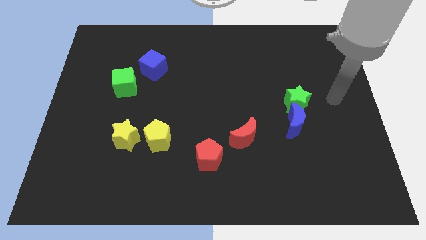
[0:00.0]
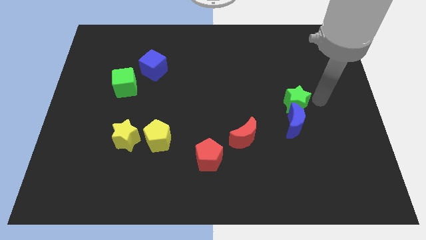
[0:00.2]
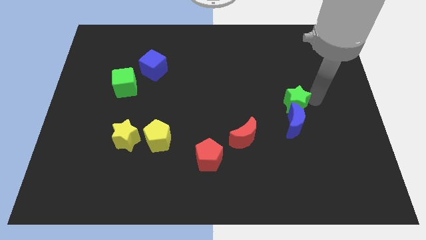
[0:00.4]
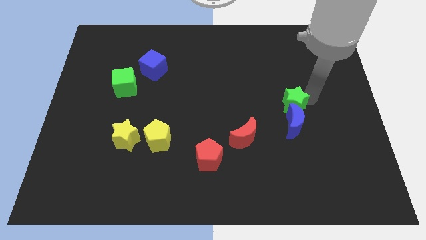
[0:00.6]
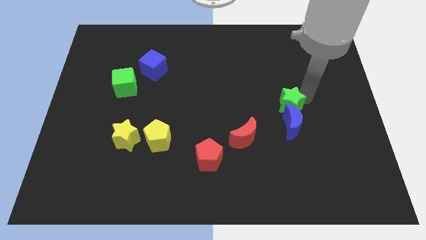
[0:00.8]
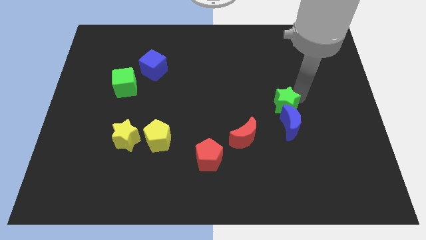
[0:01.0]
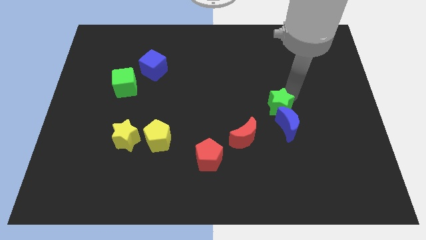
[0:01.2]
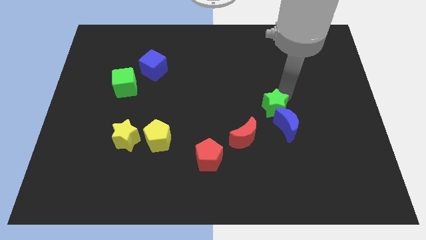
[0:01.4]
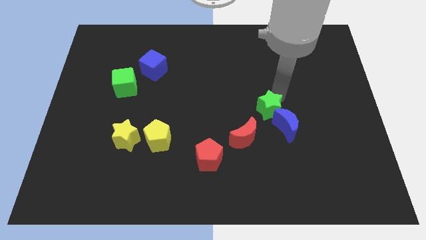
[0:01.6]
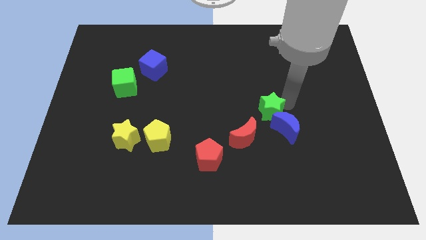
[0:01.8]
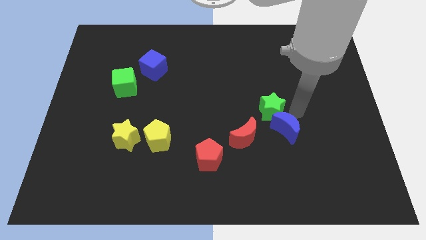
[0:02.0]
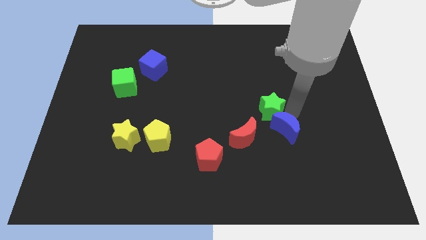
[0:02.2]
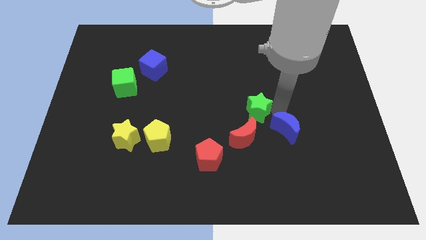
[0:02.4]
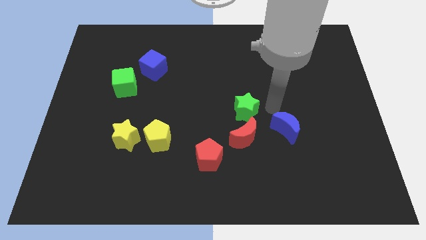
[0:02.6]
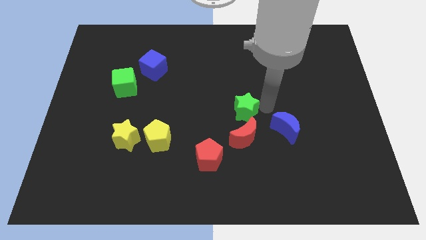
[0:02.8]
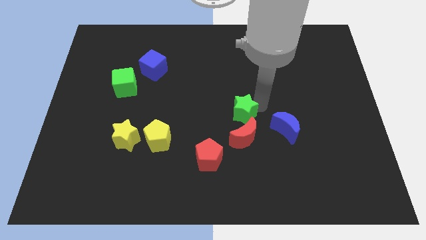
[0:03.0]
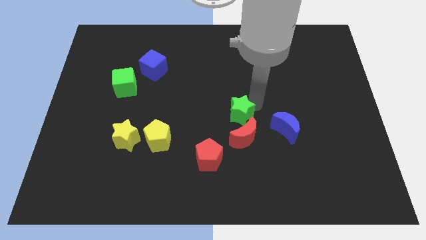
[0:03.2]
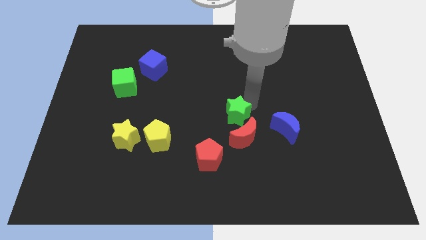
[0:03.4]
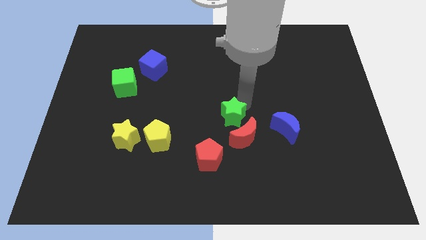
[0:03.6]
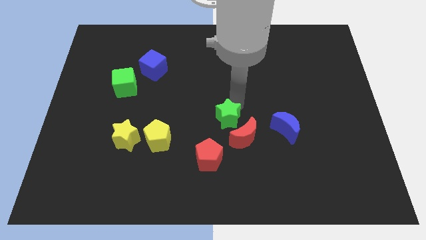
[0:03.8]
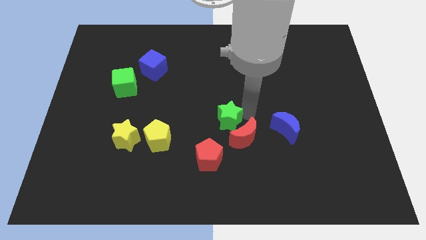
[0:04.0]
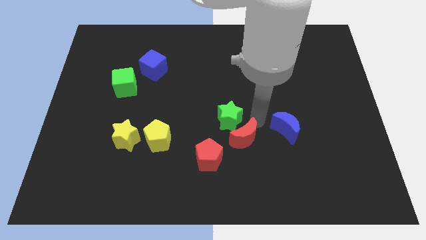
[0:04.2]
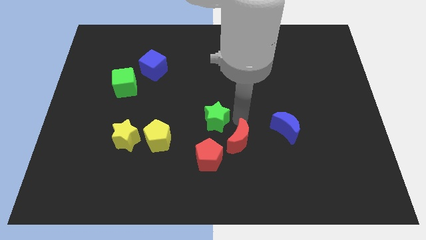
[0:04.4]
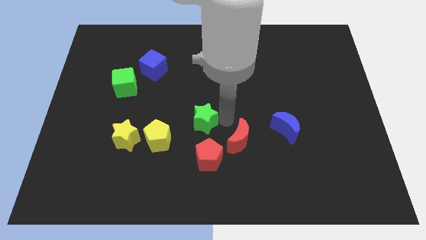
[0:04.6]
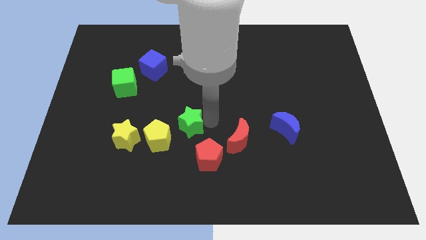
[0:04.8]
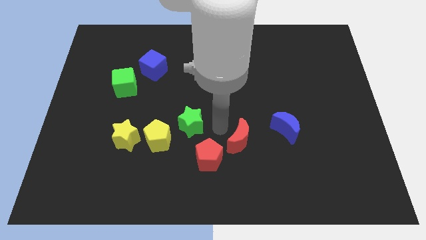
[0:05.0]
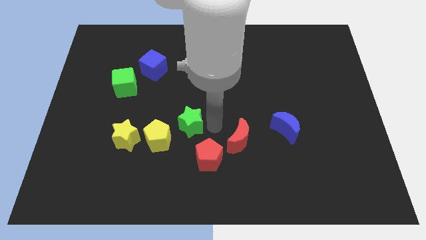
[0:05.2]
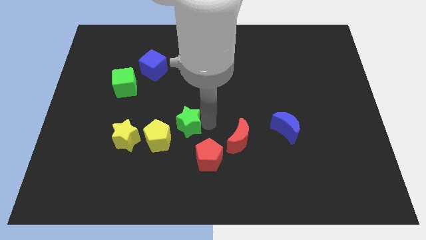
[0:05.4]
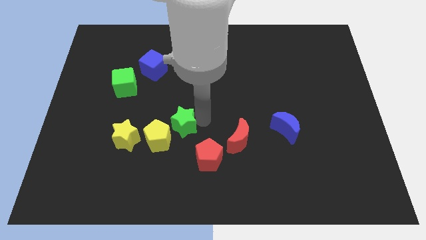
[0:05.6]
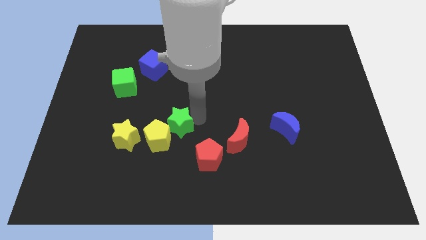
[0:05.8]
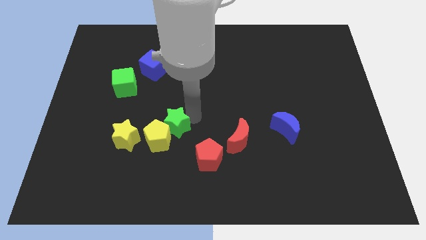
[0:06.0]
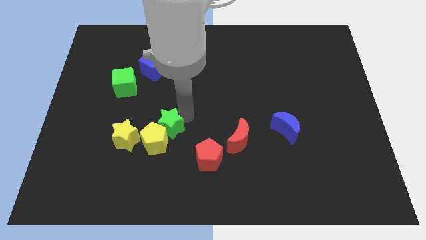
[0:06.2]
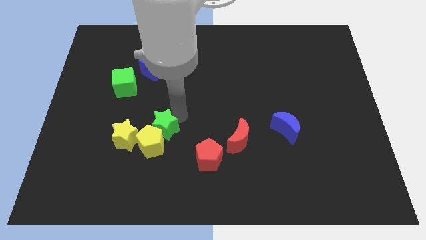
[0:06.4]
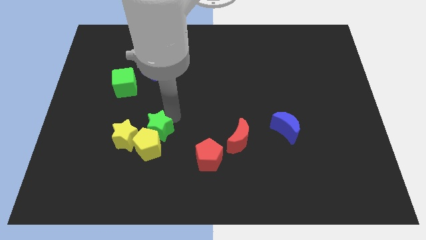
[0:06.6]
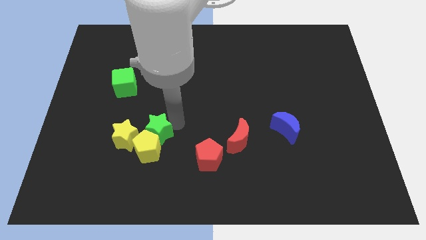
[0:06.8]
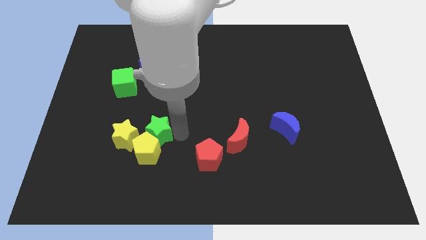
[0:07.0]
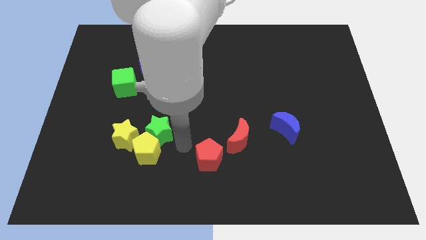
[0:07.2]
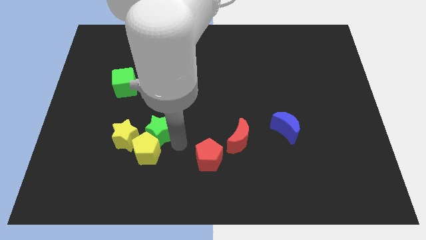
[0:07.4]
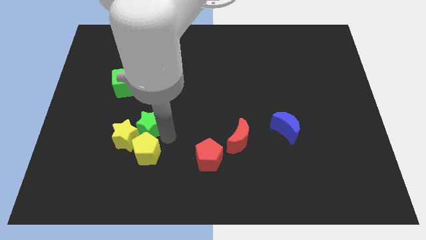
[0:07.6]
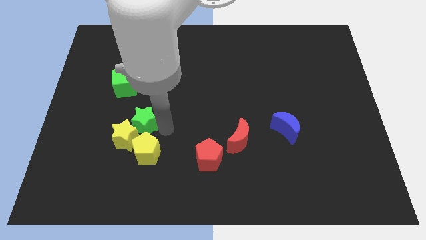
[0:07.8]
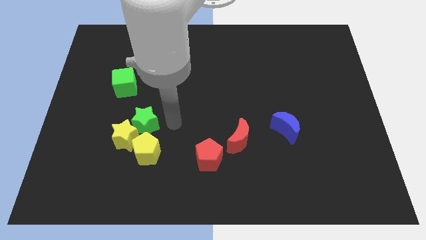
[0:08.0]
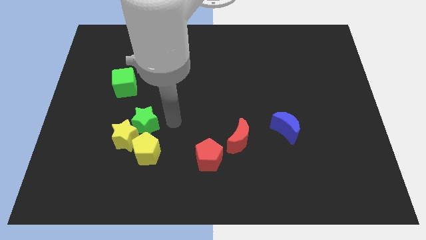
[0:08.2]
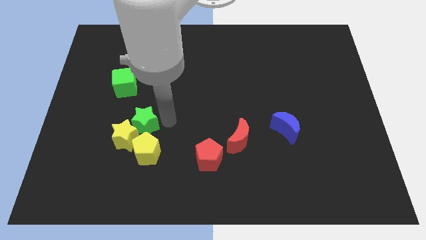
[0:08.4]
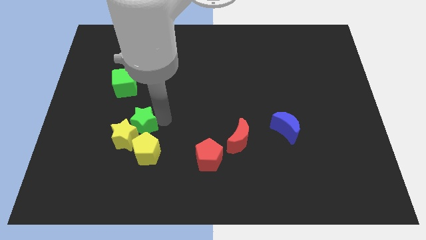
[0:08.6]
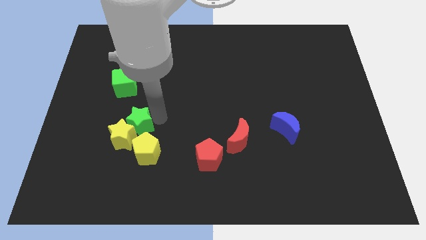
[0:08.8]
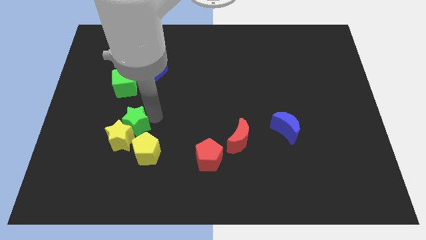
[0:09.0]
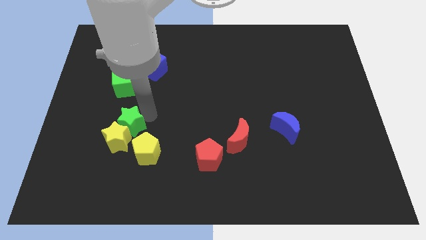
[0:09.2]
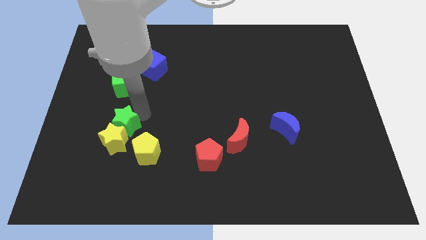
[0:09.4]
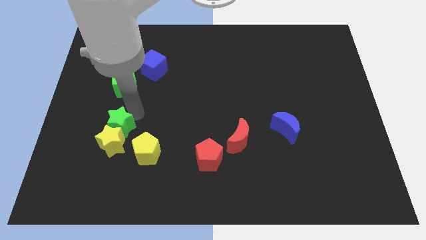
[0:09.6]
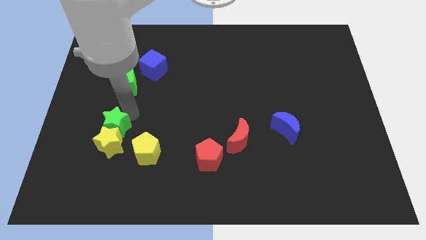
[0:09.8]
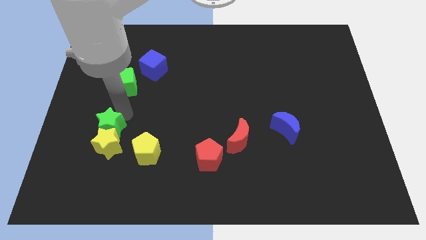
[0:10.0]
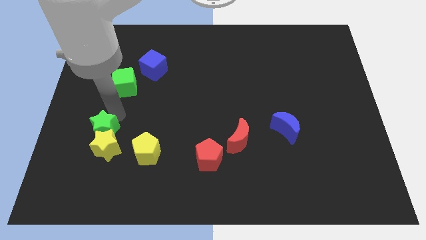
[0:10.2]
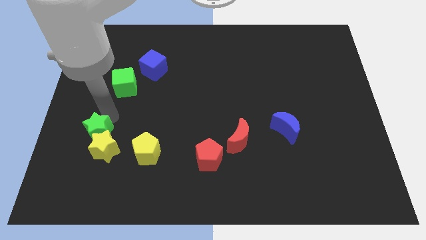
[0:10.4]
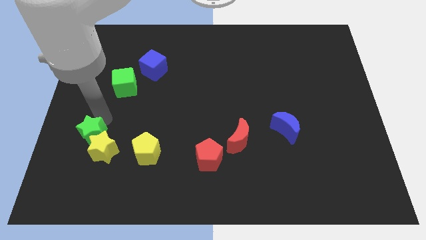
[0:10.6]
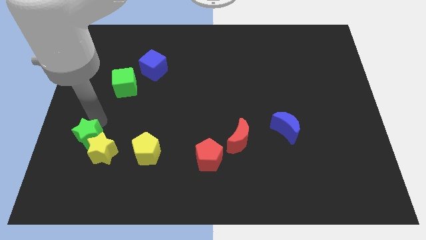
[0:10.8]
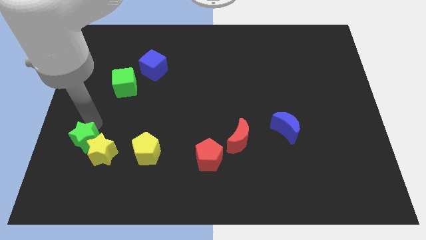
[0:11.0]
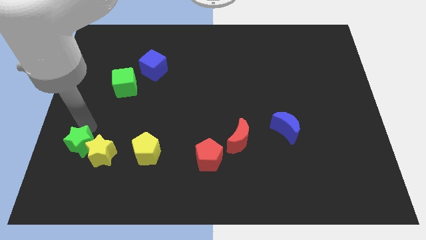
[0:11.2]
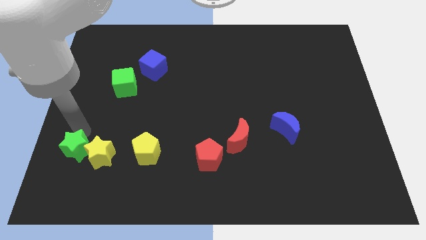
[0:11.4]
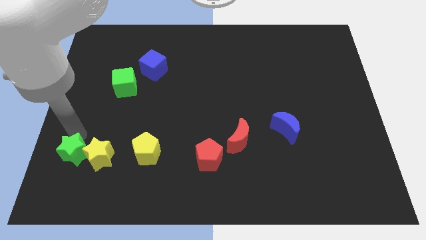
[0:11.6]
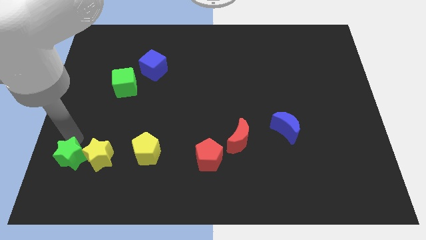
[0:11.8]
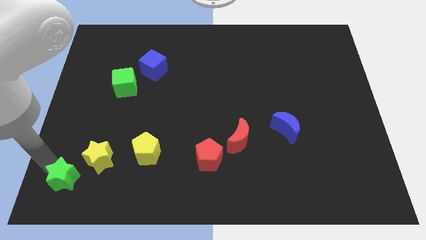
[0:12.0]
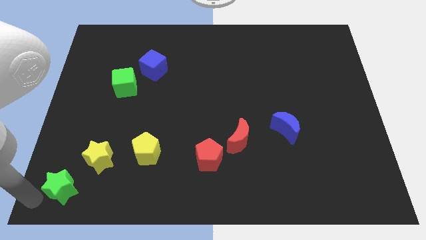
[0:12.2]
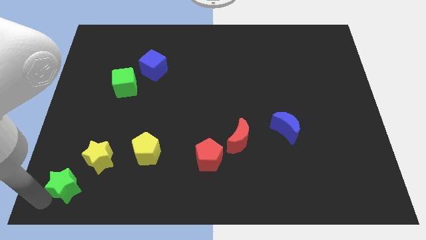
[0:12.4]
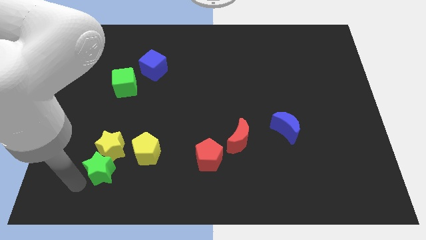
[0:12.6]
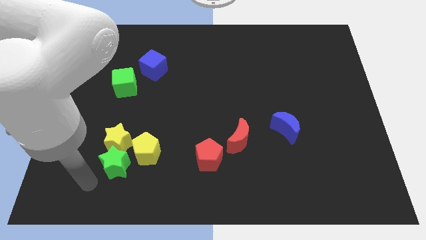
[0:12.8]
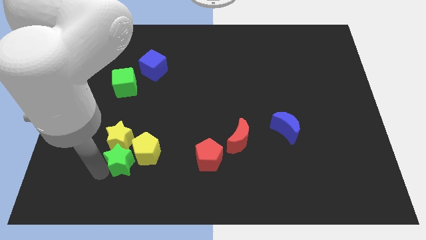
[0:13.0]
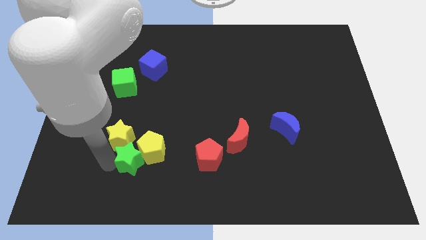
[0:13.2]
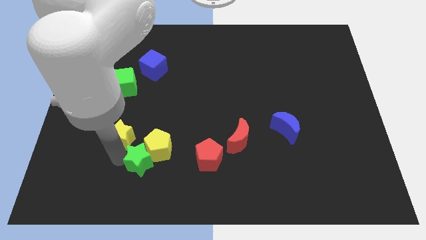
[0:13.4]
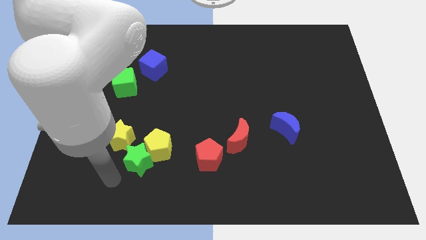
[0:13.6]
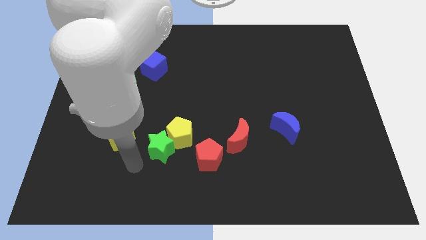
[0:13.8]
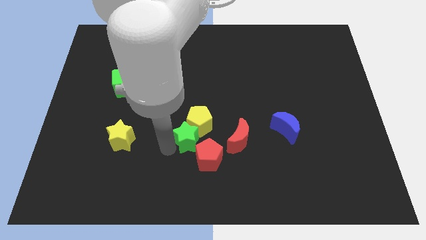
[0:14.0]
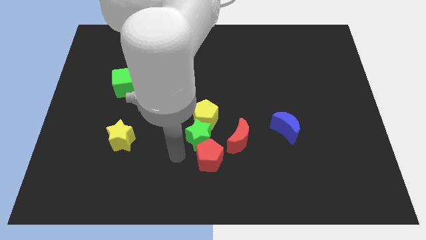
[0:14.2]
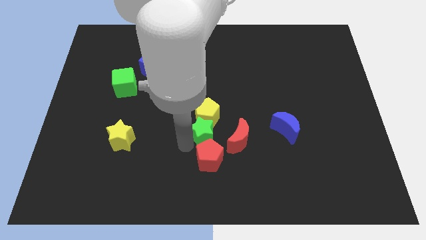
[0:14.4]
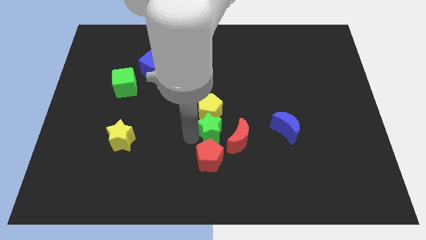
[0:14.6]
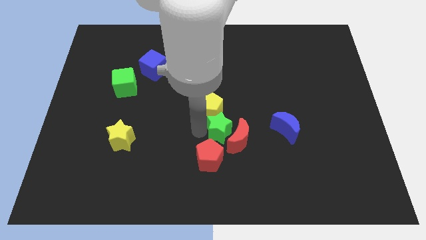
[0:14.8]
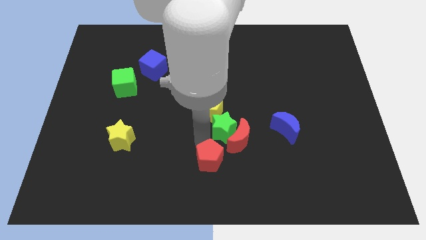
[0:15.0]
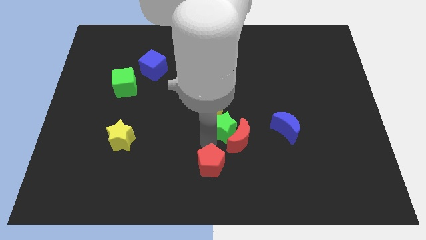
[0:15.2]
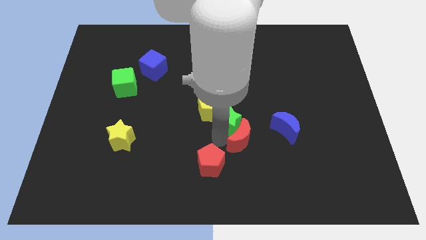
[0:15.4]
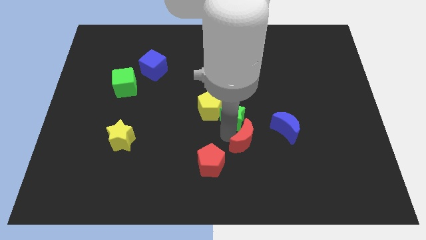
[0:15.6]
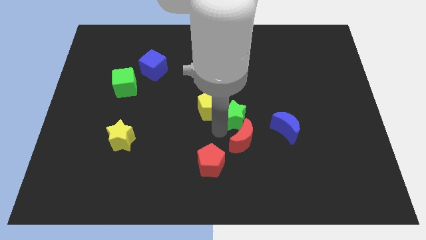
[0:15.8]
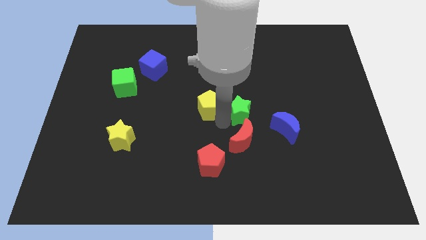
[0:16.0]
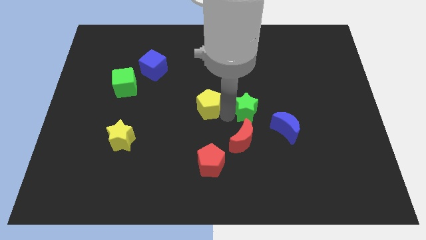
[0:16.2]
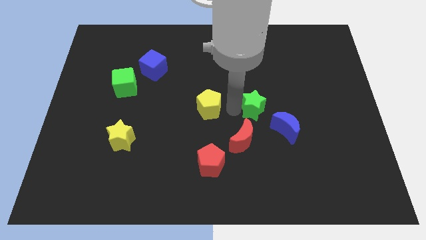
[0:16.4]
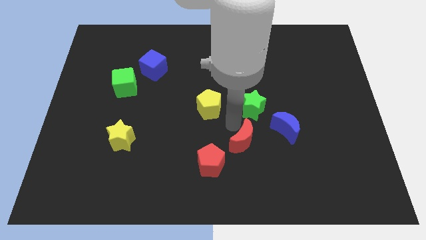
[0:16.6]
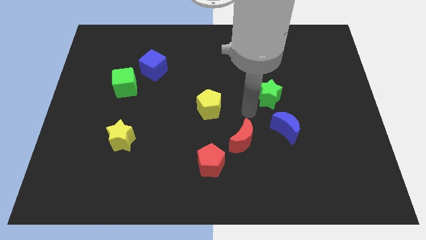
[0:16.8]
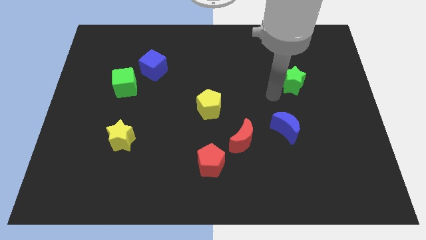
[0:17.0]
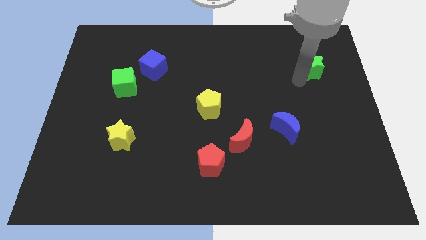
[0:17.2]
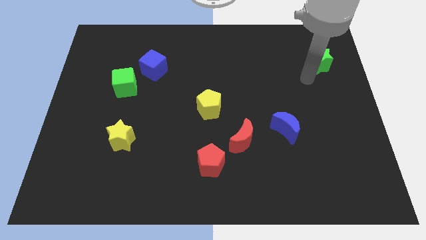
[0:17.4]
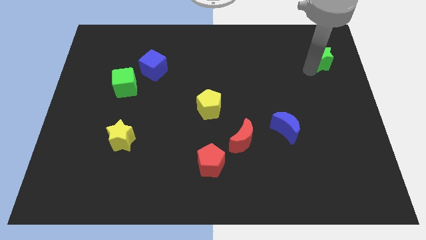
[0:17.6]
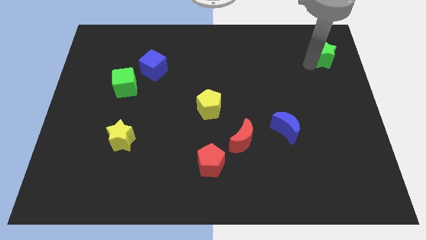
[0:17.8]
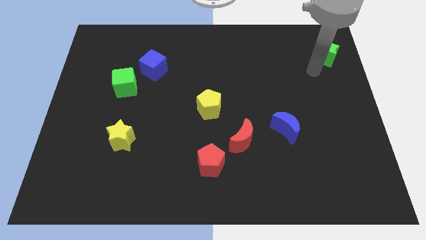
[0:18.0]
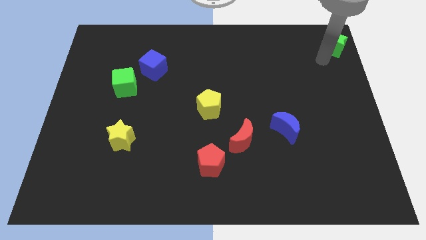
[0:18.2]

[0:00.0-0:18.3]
put the green star to the top right corner
